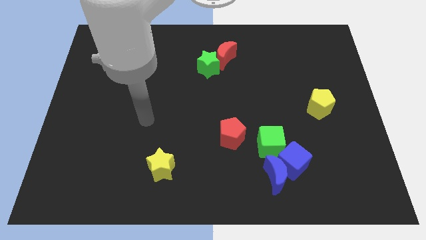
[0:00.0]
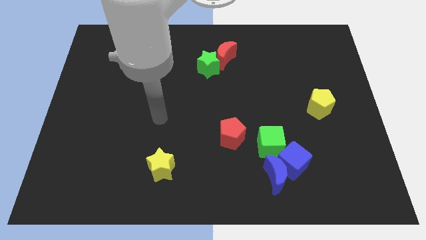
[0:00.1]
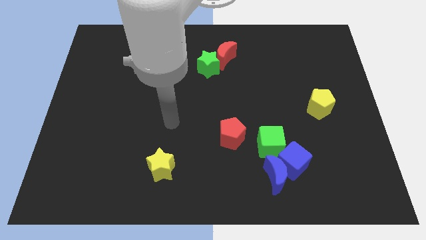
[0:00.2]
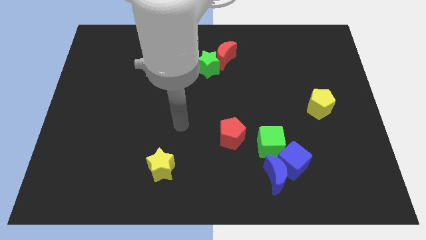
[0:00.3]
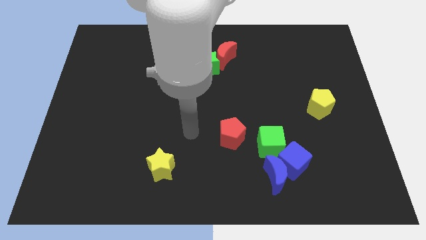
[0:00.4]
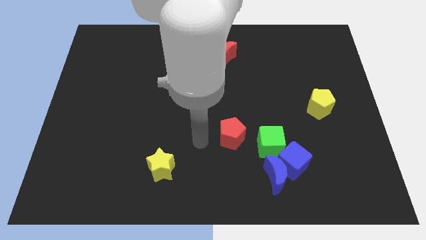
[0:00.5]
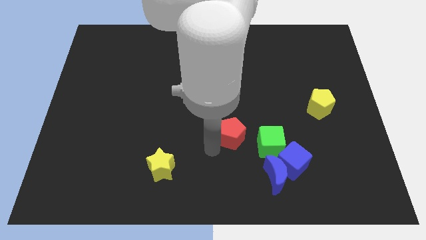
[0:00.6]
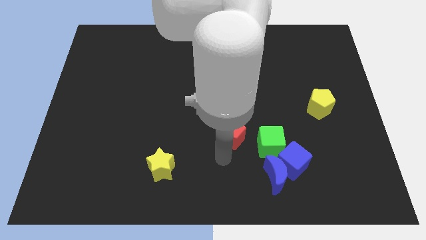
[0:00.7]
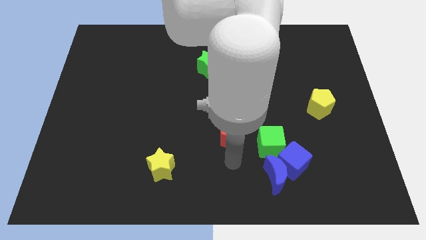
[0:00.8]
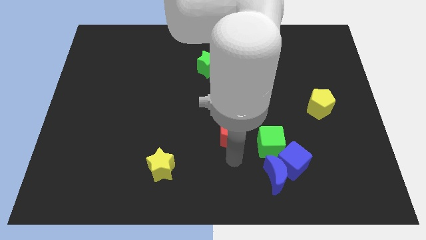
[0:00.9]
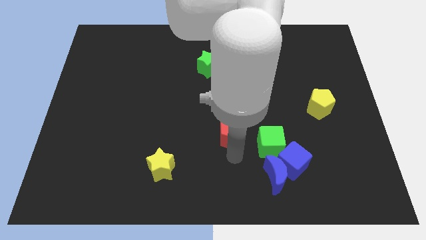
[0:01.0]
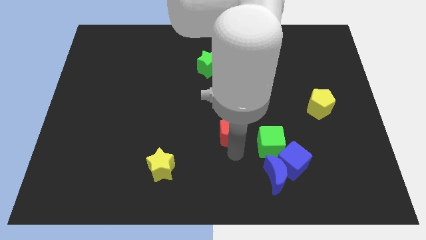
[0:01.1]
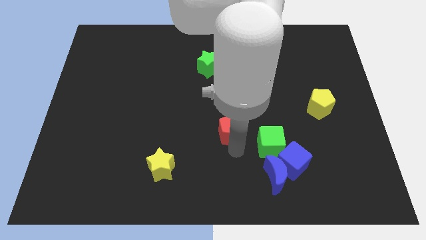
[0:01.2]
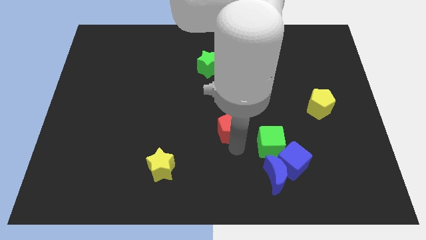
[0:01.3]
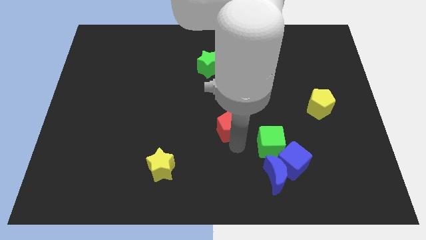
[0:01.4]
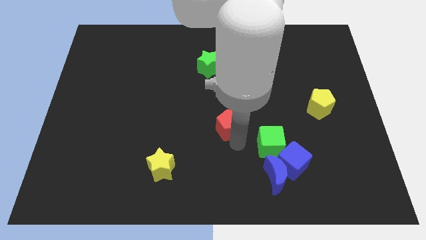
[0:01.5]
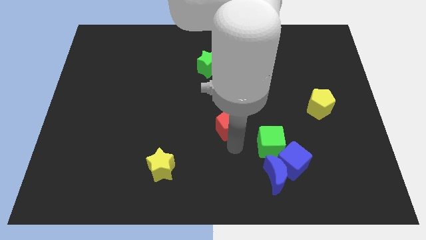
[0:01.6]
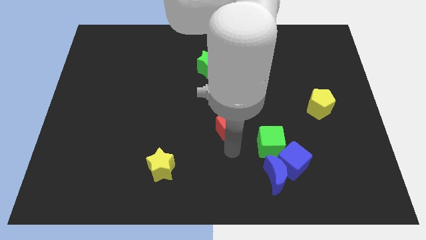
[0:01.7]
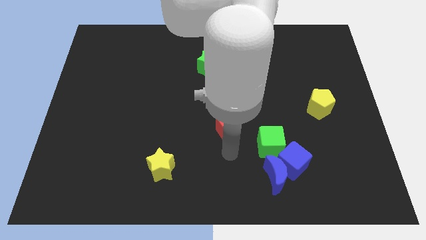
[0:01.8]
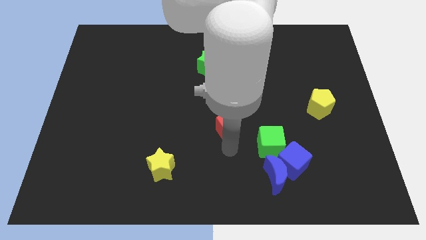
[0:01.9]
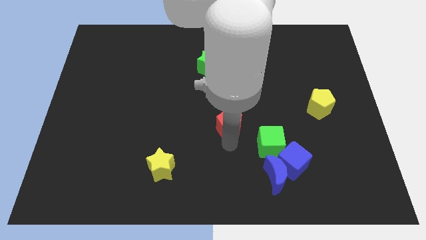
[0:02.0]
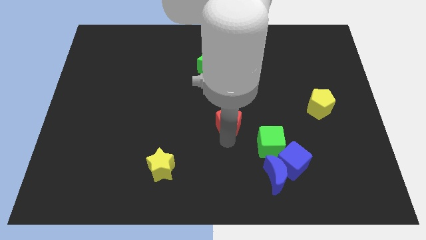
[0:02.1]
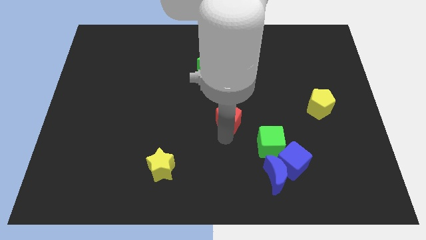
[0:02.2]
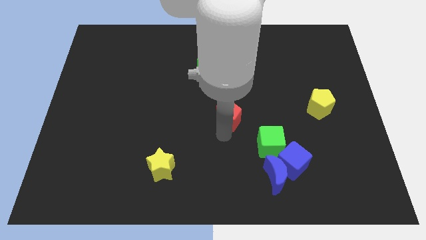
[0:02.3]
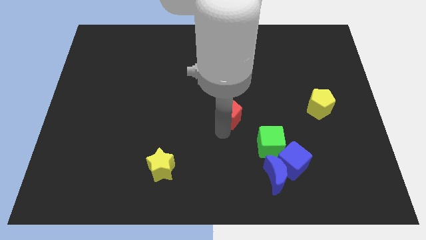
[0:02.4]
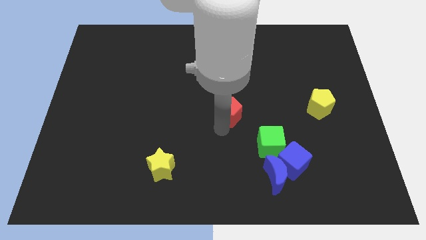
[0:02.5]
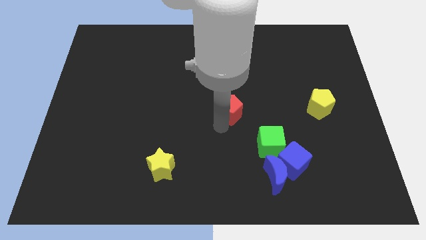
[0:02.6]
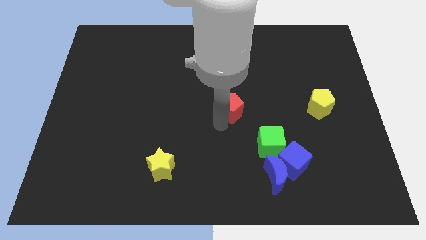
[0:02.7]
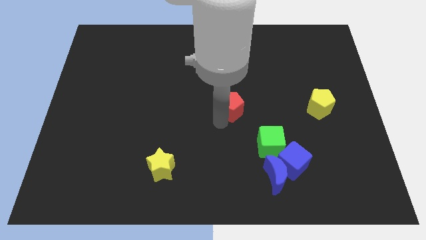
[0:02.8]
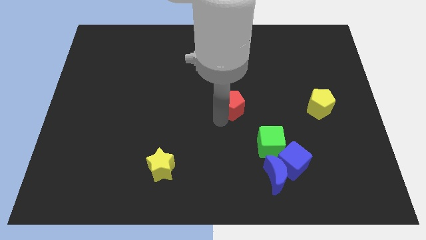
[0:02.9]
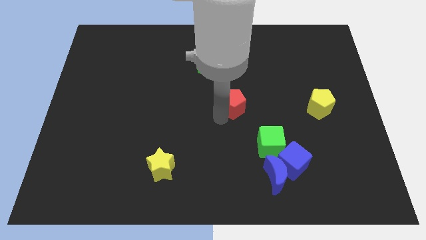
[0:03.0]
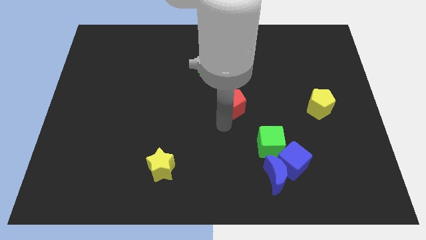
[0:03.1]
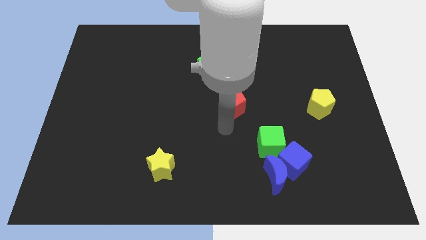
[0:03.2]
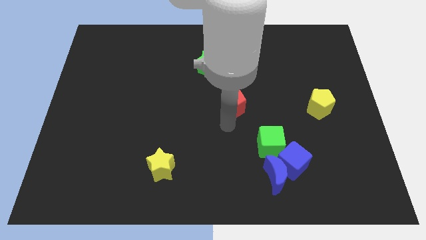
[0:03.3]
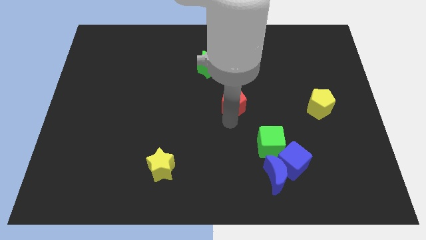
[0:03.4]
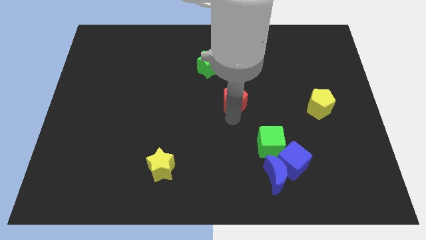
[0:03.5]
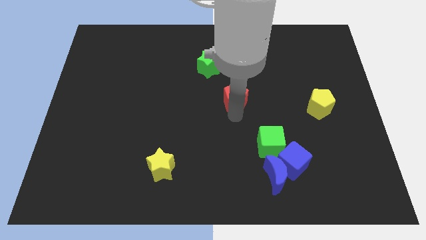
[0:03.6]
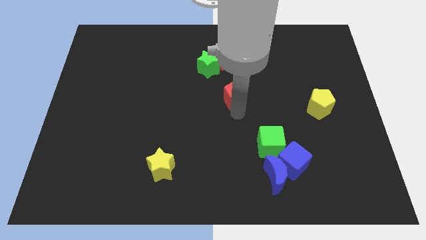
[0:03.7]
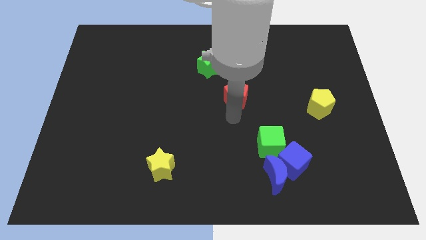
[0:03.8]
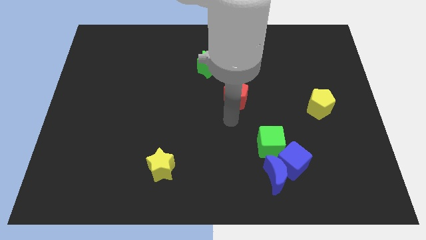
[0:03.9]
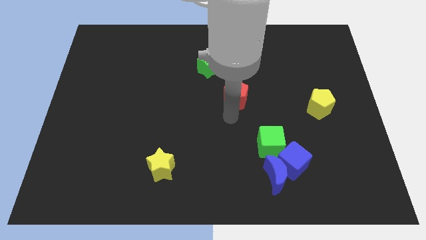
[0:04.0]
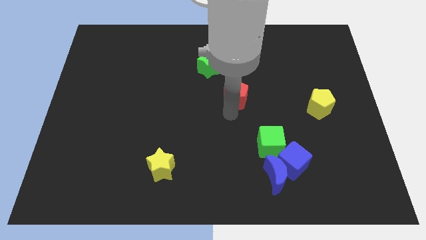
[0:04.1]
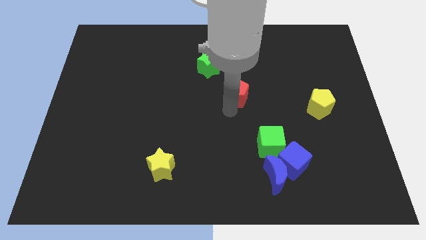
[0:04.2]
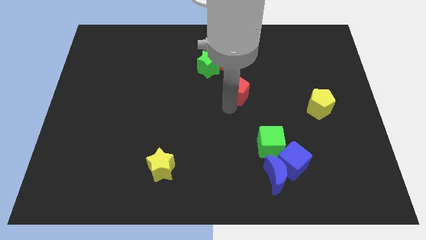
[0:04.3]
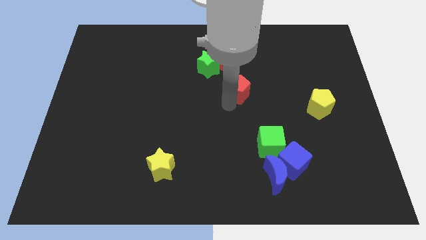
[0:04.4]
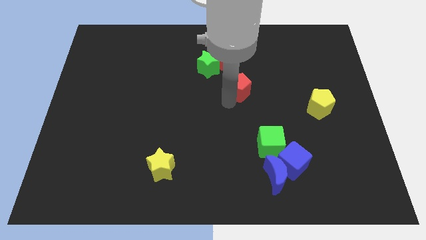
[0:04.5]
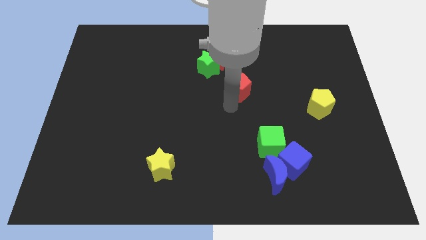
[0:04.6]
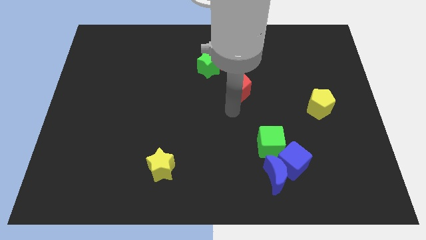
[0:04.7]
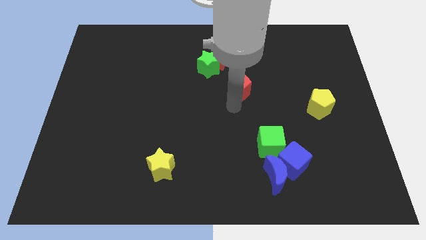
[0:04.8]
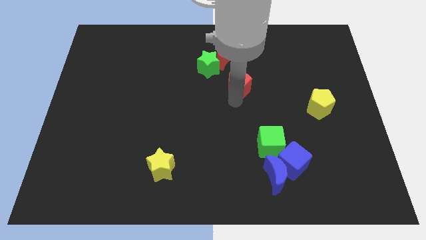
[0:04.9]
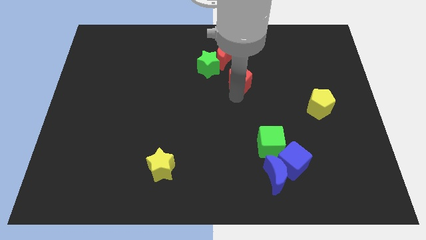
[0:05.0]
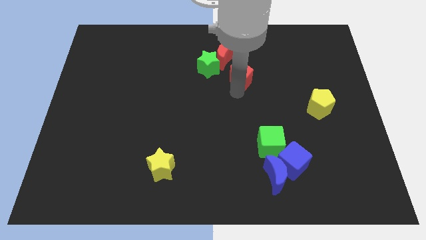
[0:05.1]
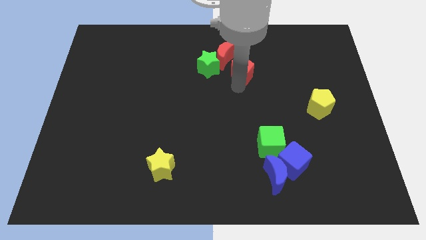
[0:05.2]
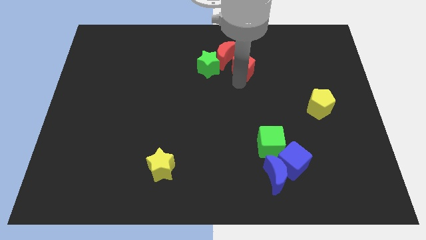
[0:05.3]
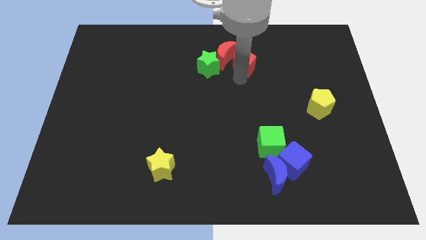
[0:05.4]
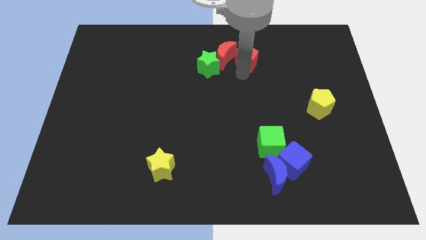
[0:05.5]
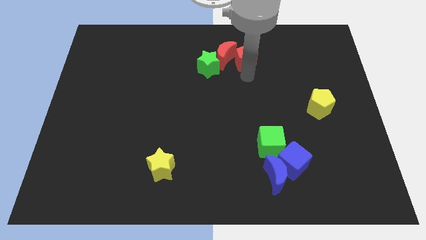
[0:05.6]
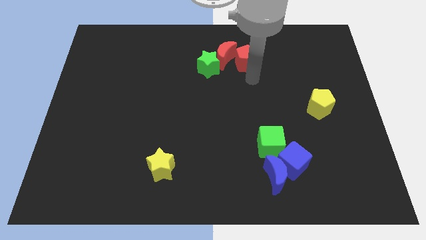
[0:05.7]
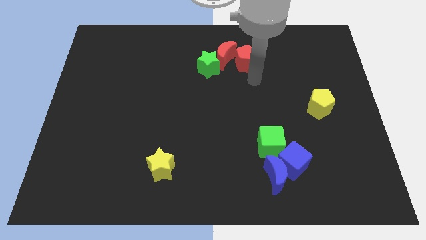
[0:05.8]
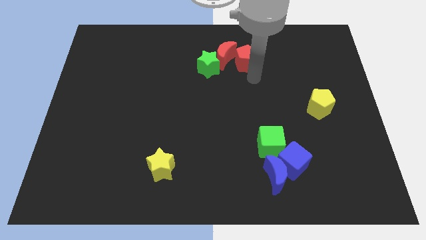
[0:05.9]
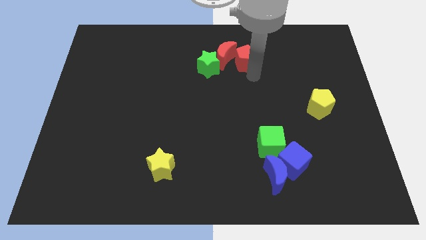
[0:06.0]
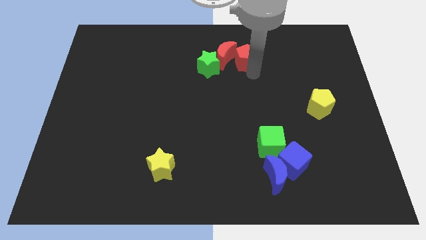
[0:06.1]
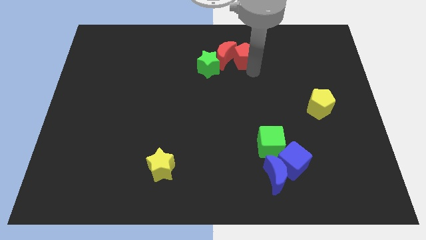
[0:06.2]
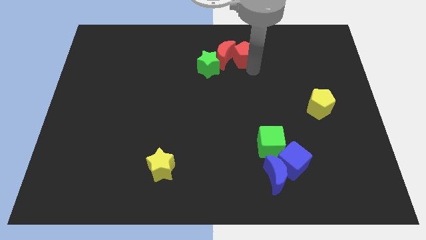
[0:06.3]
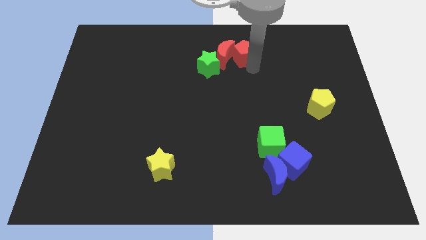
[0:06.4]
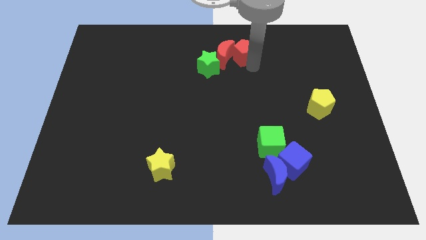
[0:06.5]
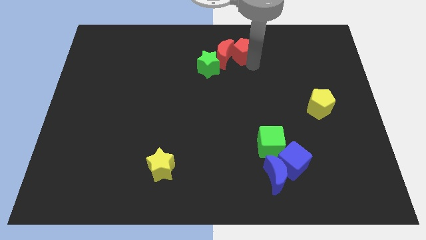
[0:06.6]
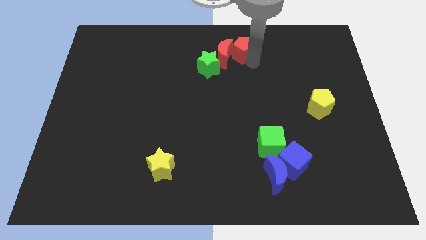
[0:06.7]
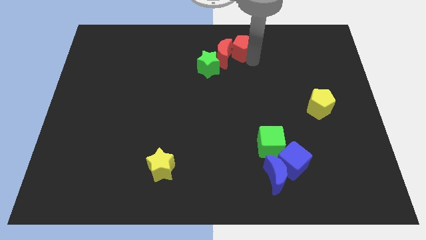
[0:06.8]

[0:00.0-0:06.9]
put the red pentagon to the top side
